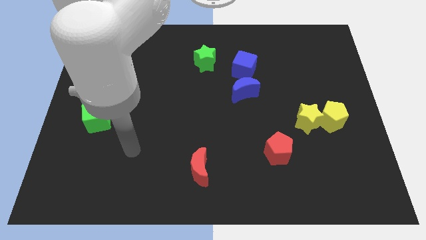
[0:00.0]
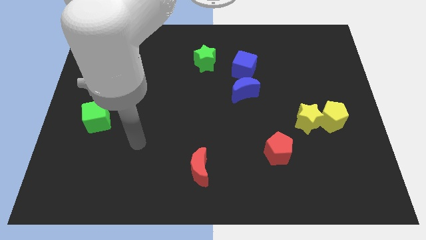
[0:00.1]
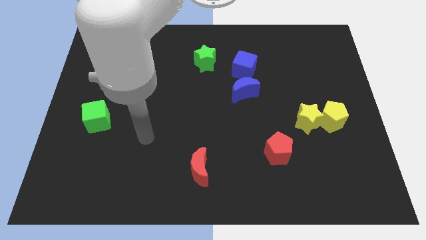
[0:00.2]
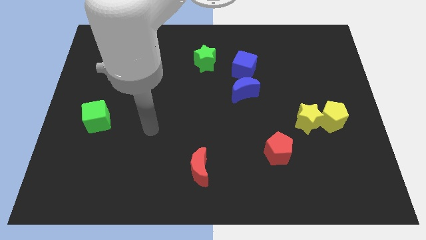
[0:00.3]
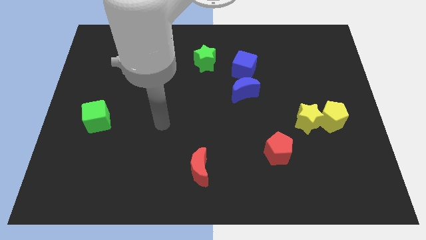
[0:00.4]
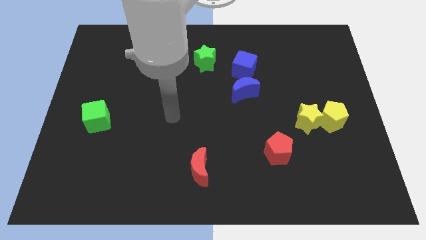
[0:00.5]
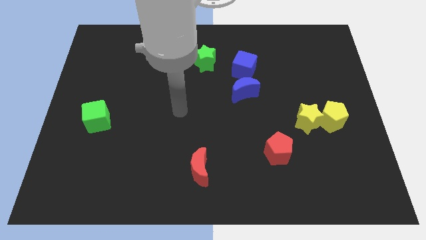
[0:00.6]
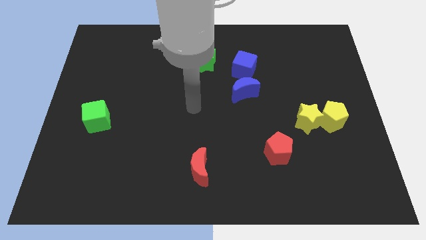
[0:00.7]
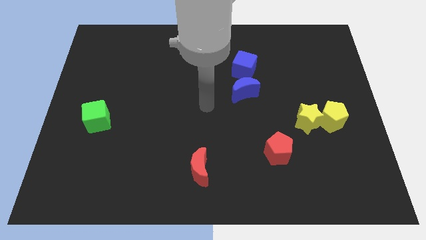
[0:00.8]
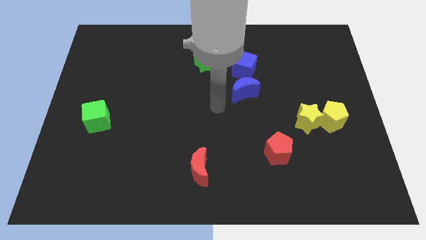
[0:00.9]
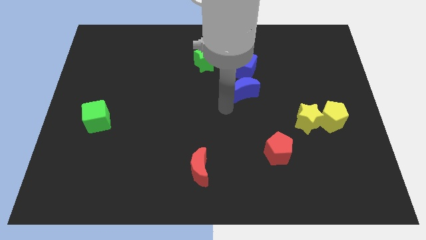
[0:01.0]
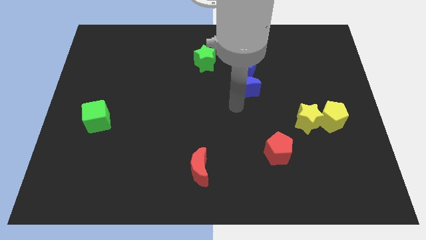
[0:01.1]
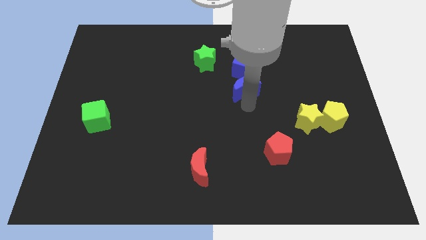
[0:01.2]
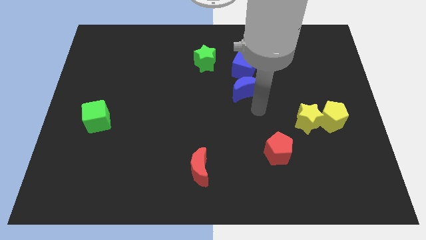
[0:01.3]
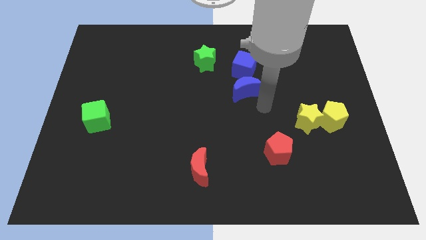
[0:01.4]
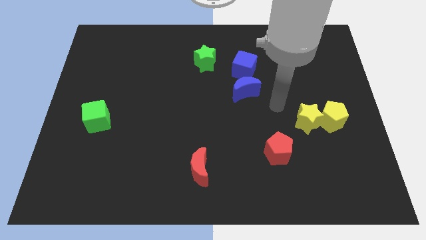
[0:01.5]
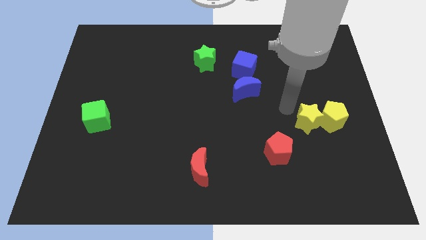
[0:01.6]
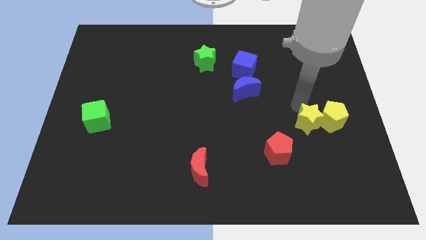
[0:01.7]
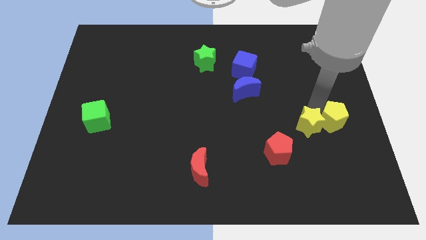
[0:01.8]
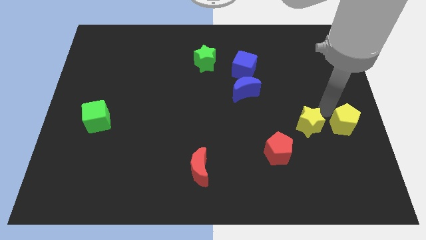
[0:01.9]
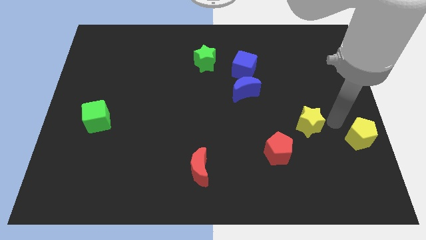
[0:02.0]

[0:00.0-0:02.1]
pull the yellow star apart from the yellow pentagon

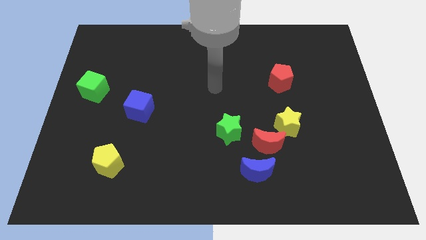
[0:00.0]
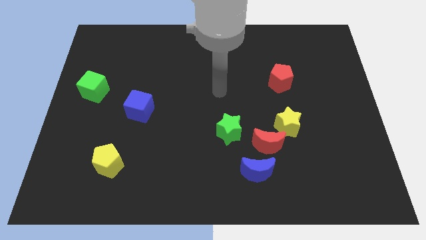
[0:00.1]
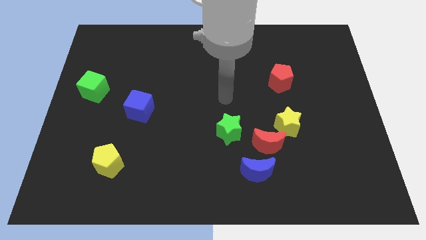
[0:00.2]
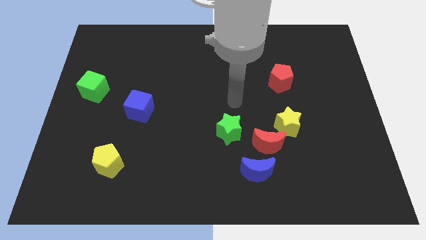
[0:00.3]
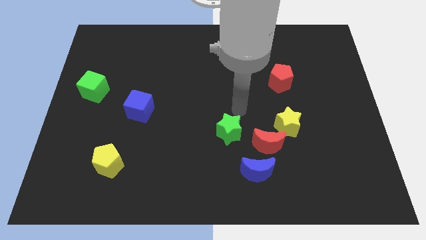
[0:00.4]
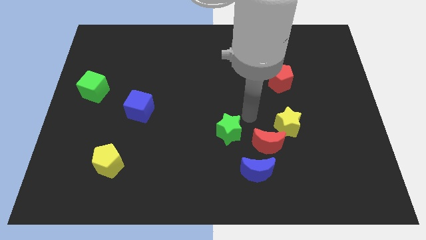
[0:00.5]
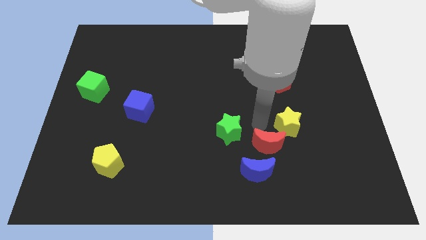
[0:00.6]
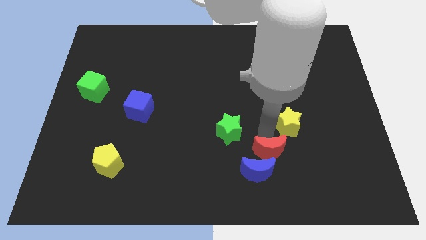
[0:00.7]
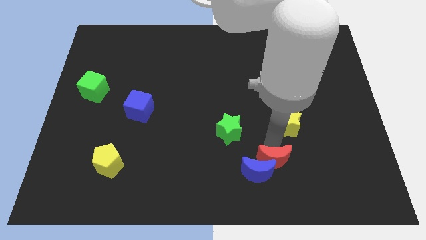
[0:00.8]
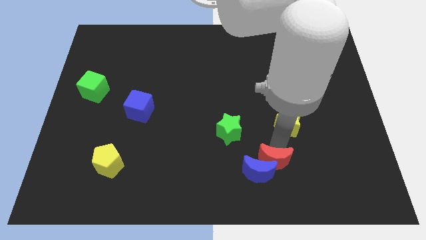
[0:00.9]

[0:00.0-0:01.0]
pull the yellow star apart from the red moon

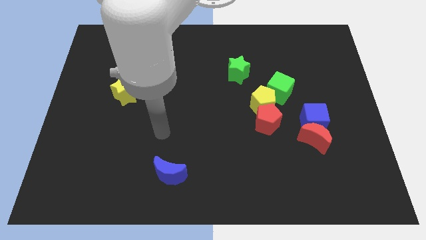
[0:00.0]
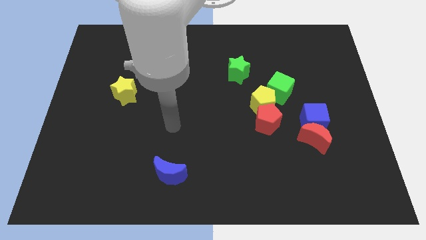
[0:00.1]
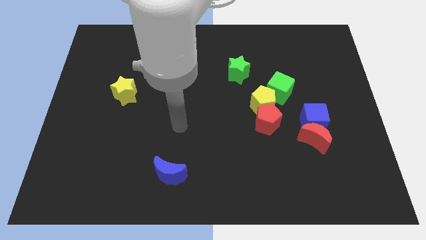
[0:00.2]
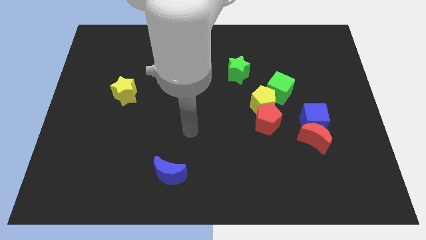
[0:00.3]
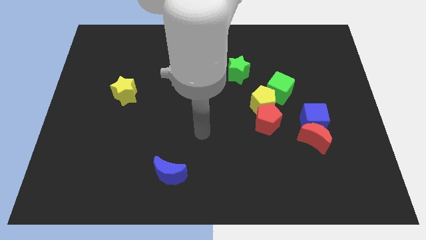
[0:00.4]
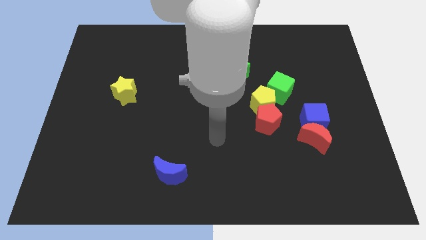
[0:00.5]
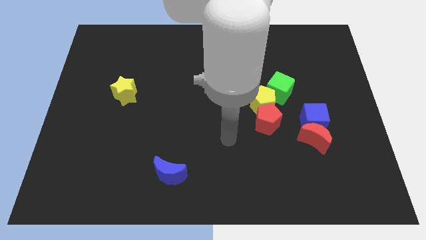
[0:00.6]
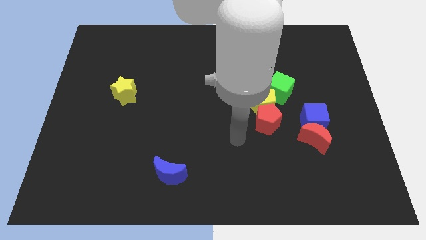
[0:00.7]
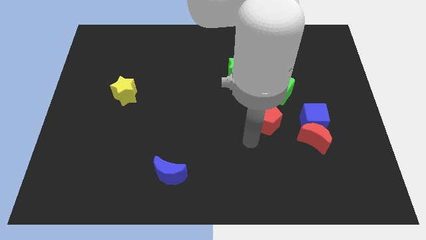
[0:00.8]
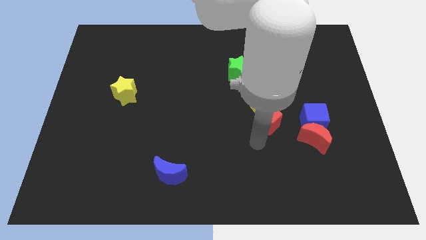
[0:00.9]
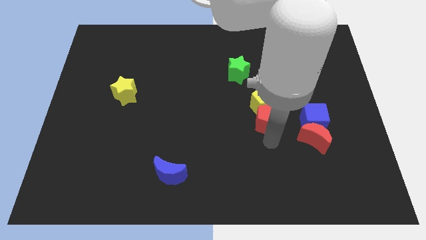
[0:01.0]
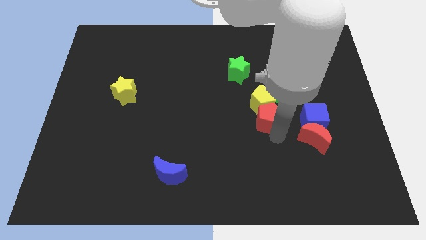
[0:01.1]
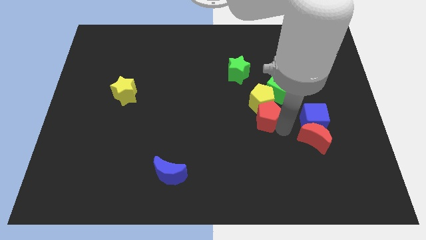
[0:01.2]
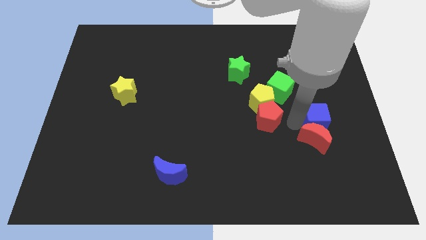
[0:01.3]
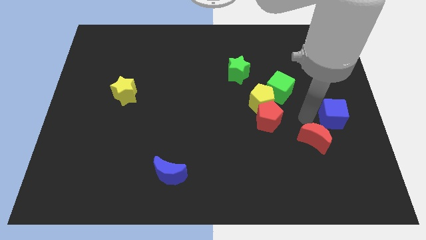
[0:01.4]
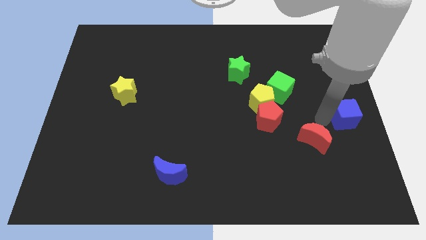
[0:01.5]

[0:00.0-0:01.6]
move the red moon away from the blue cube

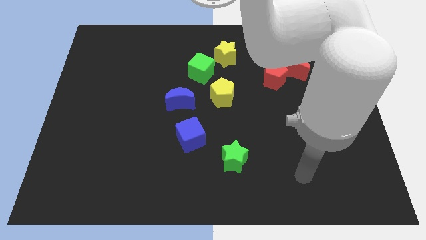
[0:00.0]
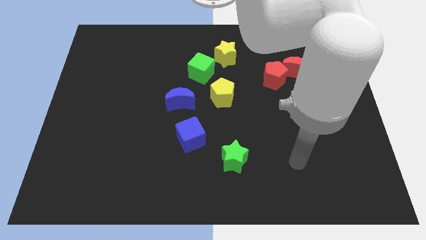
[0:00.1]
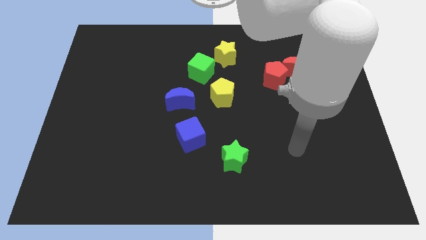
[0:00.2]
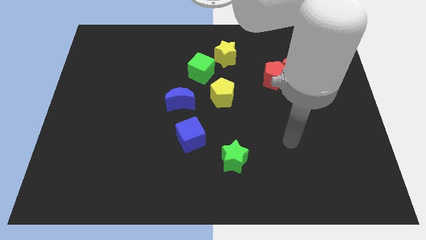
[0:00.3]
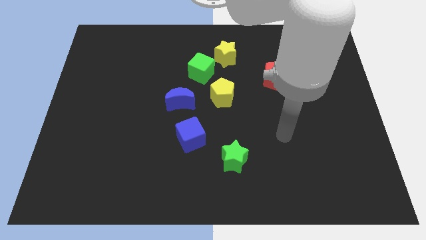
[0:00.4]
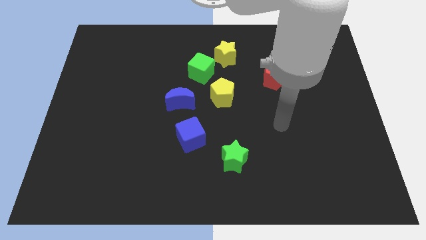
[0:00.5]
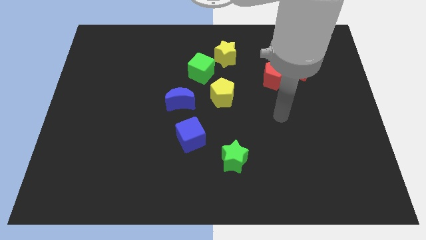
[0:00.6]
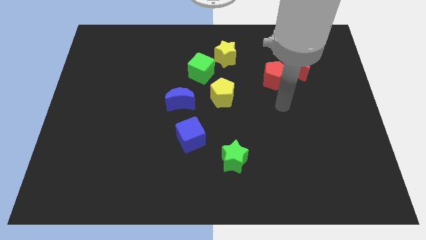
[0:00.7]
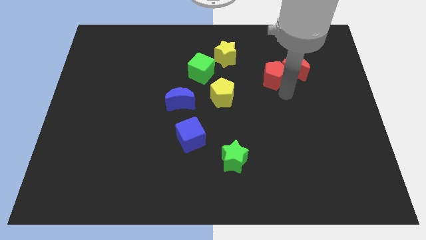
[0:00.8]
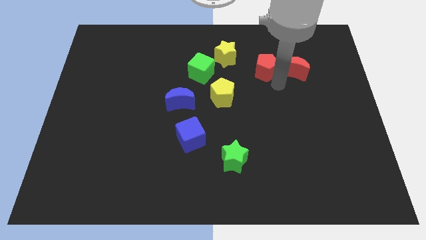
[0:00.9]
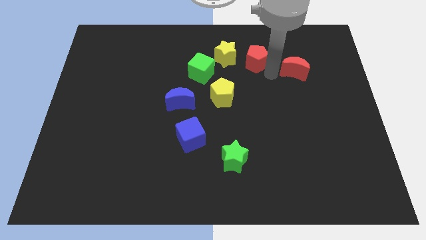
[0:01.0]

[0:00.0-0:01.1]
move the red moon away from the red pentagon

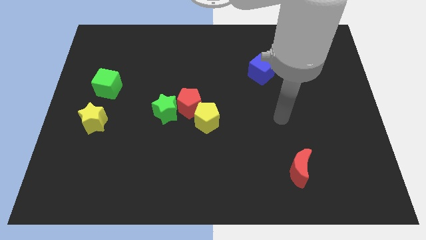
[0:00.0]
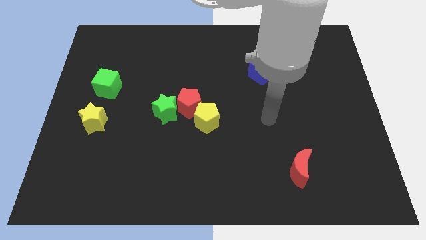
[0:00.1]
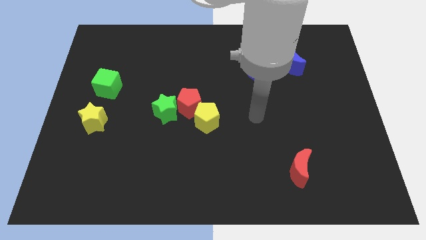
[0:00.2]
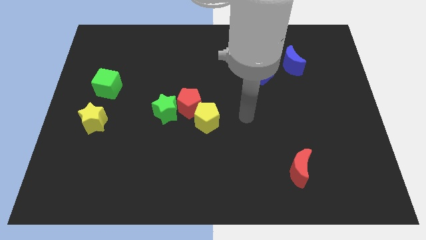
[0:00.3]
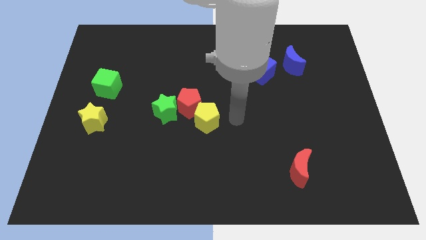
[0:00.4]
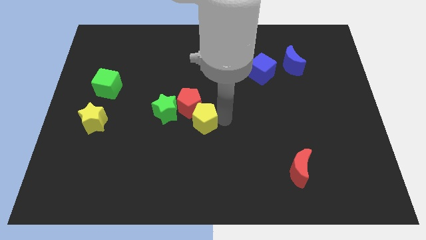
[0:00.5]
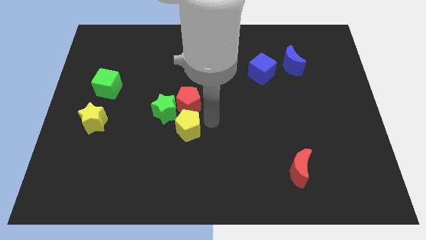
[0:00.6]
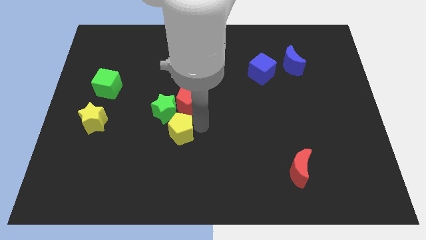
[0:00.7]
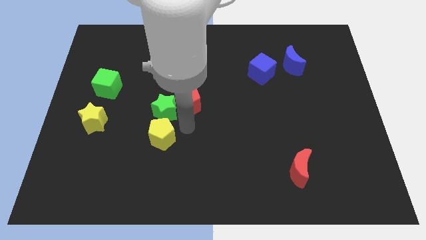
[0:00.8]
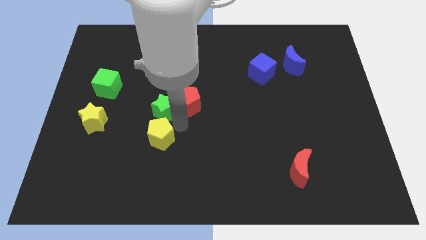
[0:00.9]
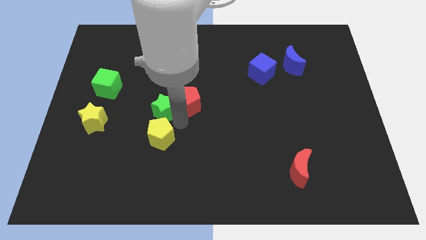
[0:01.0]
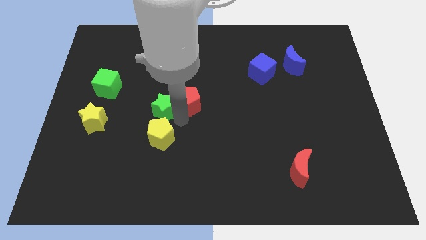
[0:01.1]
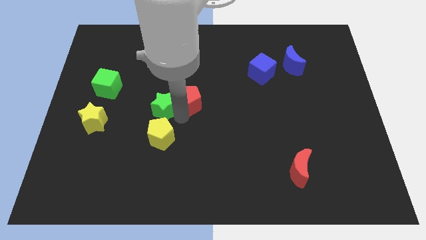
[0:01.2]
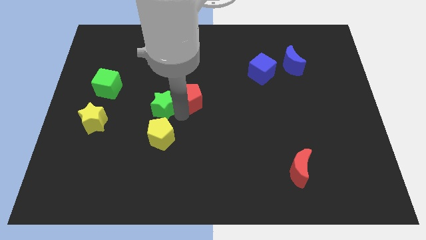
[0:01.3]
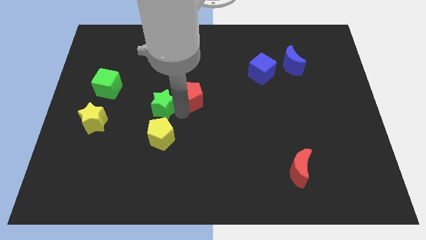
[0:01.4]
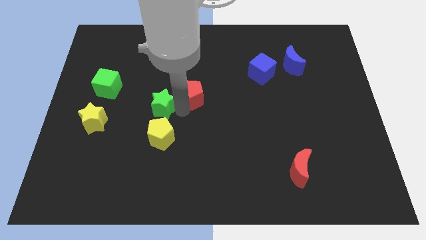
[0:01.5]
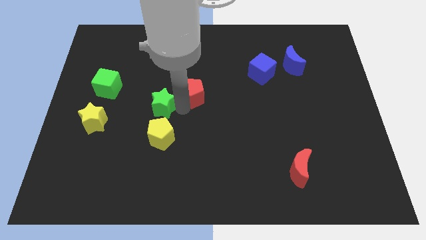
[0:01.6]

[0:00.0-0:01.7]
separate the red pentagon from the yellow pentagon and green star

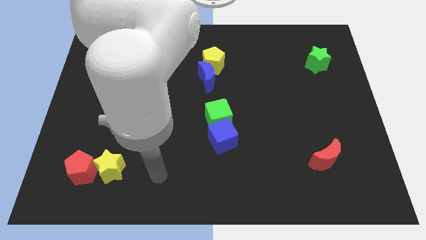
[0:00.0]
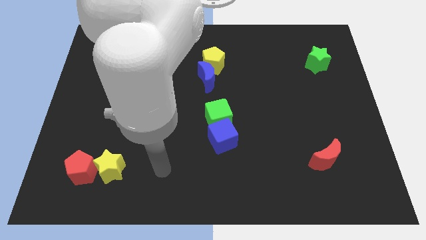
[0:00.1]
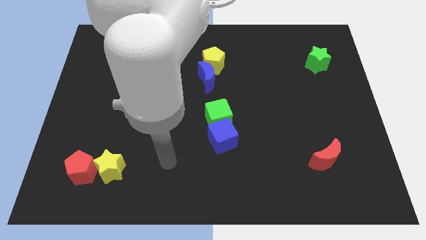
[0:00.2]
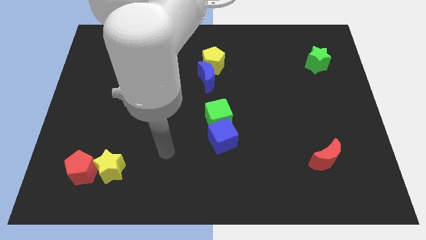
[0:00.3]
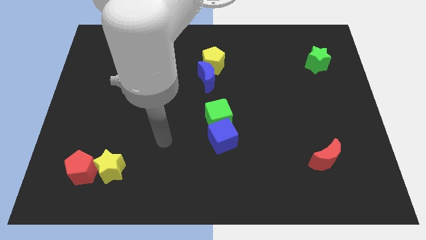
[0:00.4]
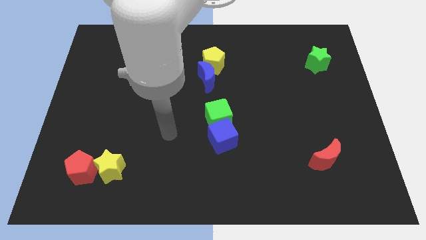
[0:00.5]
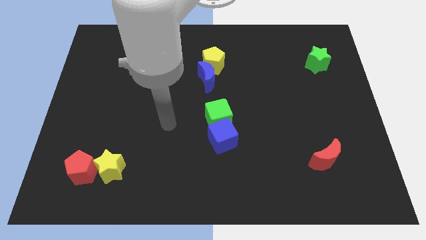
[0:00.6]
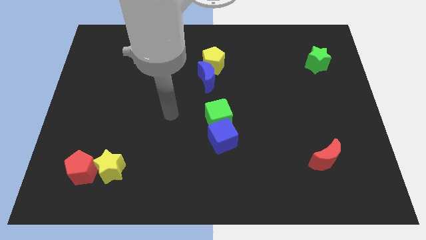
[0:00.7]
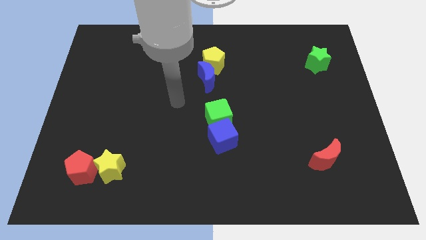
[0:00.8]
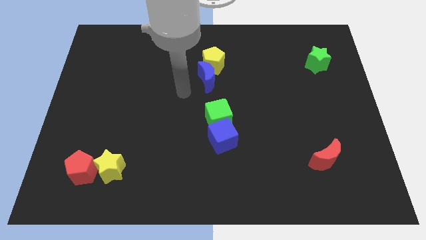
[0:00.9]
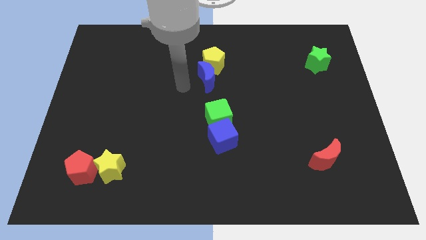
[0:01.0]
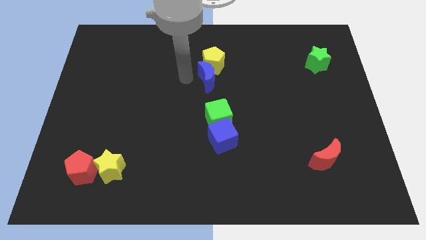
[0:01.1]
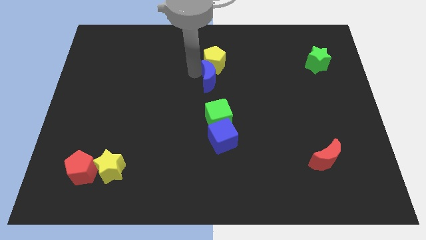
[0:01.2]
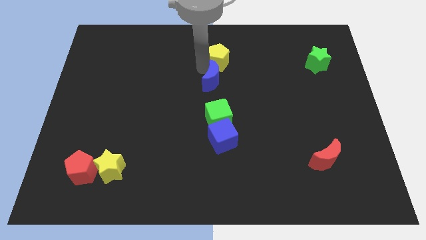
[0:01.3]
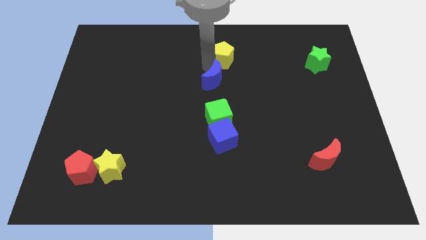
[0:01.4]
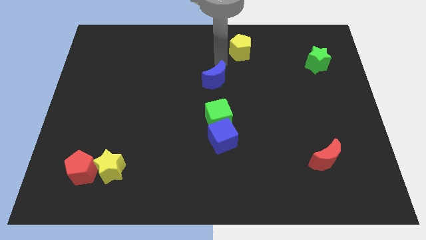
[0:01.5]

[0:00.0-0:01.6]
separate the blue moon from the yellow pentagon
